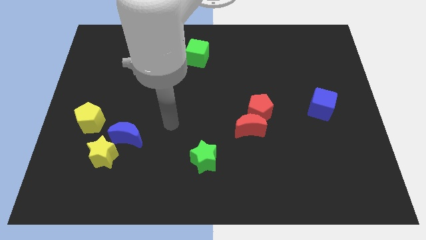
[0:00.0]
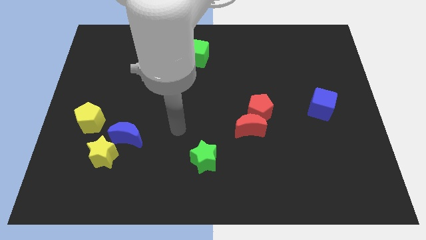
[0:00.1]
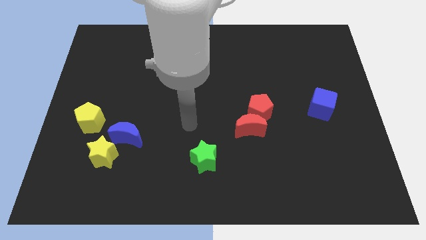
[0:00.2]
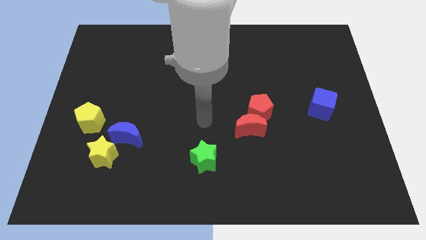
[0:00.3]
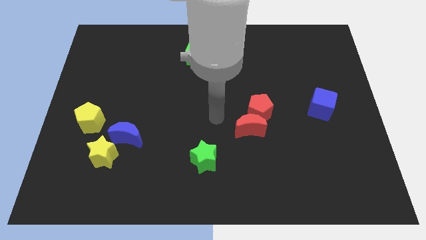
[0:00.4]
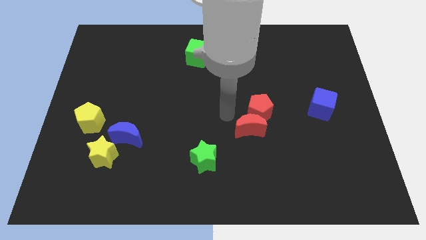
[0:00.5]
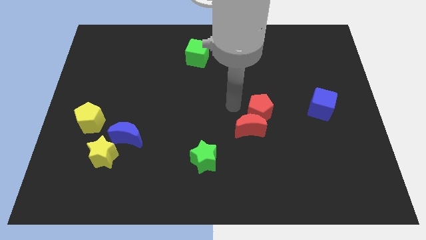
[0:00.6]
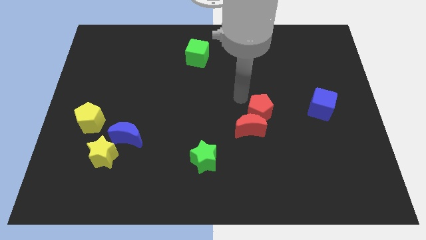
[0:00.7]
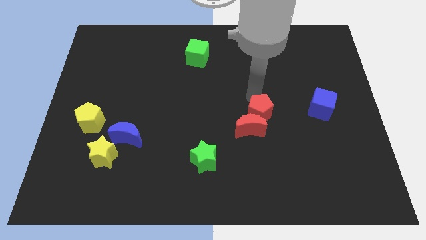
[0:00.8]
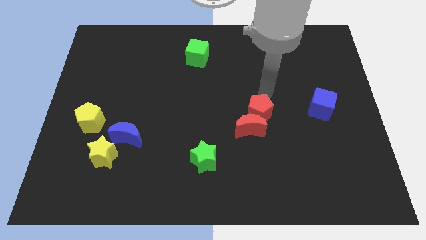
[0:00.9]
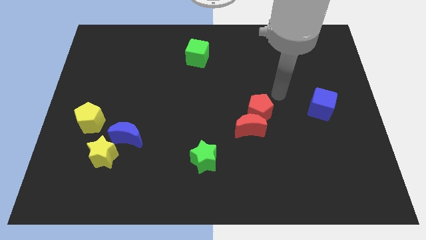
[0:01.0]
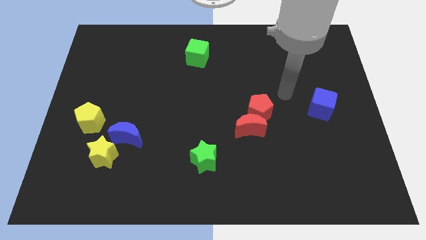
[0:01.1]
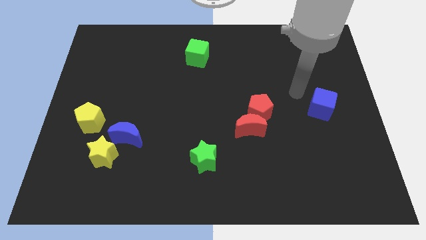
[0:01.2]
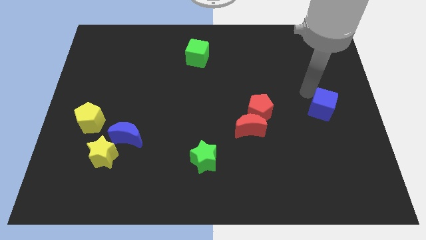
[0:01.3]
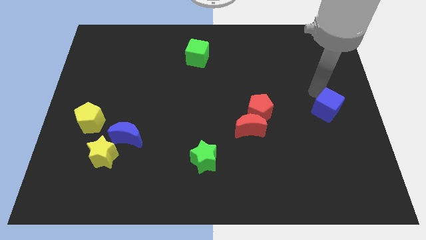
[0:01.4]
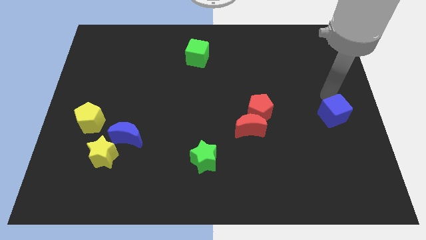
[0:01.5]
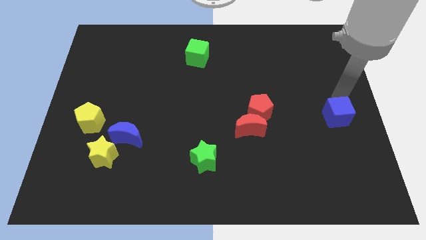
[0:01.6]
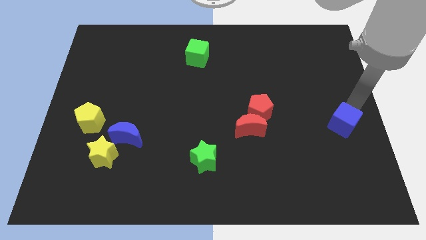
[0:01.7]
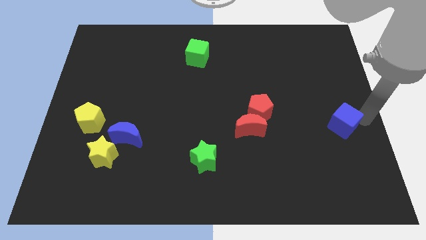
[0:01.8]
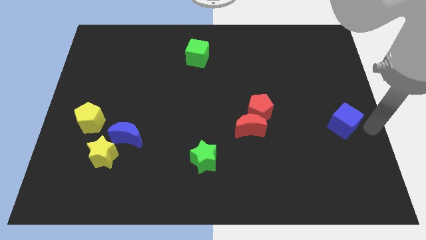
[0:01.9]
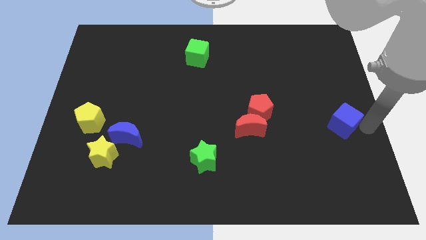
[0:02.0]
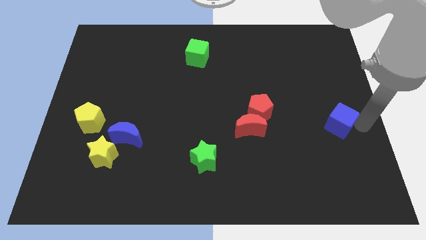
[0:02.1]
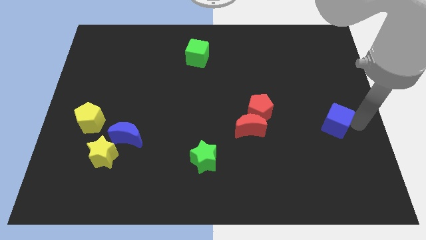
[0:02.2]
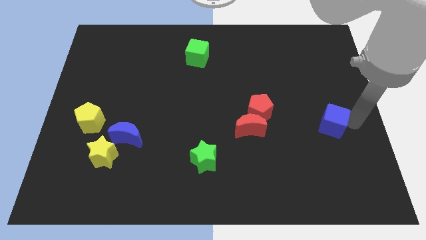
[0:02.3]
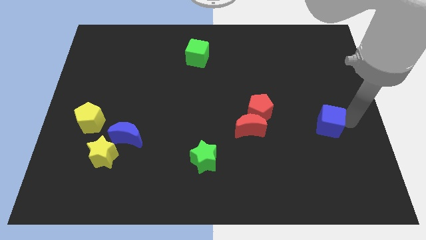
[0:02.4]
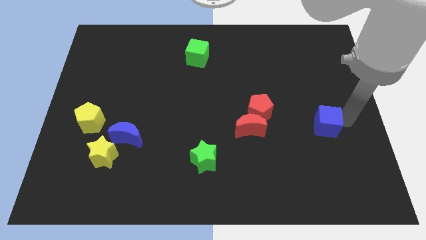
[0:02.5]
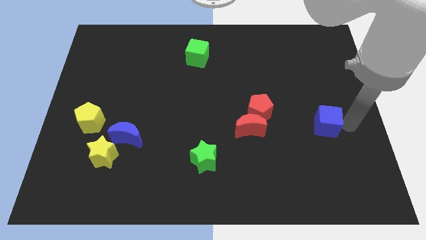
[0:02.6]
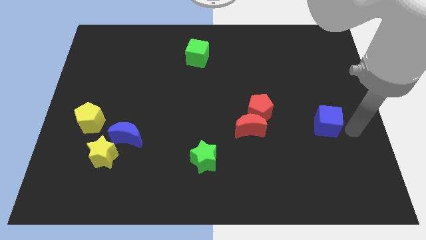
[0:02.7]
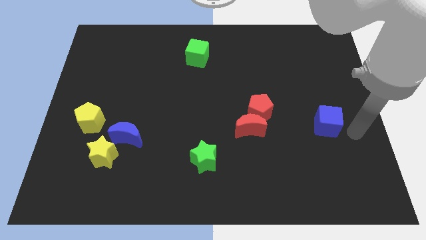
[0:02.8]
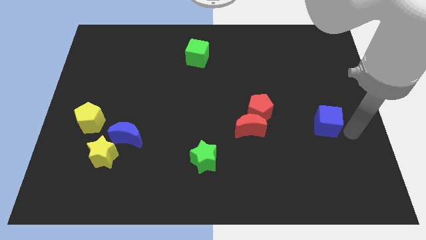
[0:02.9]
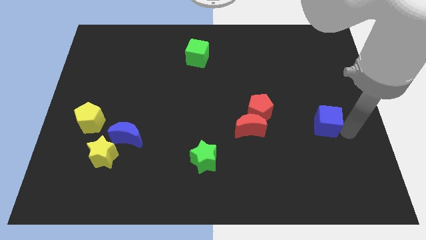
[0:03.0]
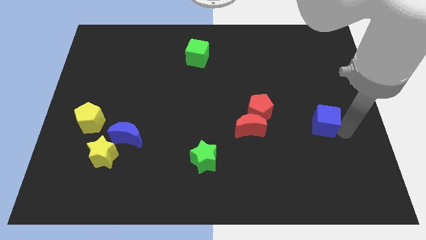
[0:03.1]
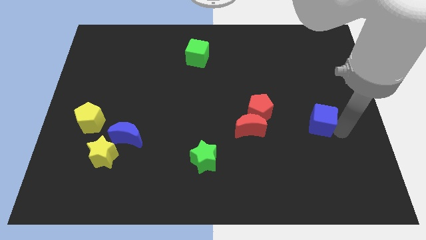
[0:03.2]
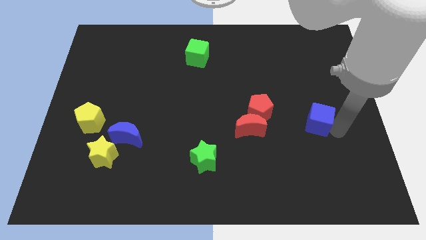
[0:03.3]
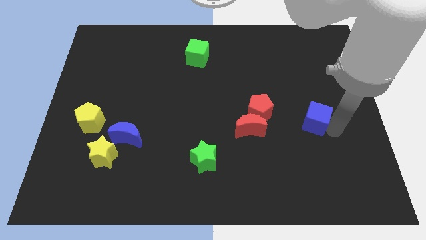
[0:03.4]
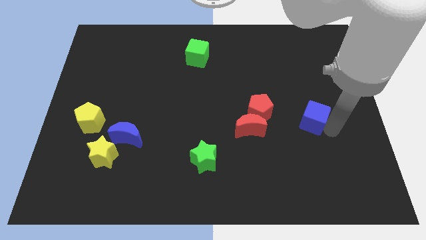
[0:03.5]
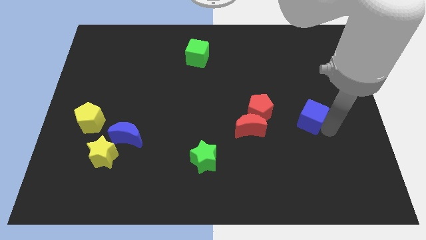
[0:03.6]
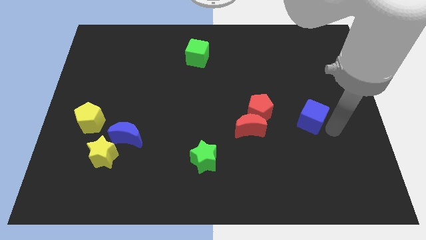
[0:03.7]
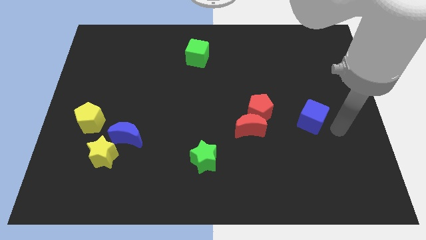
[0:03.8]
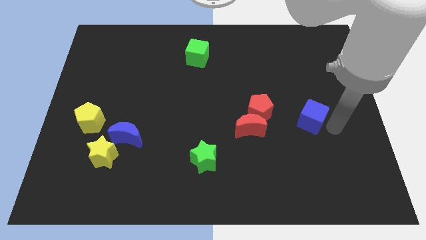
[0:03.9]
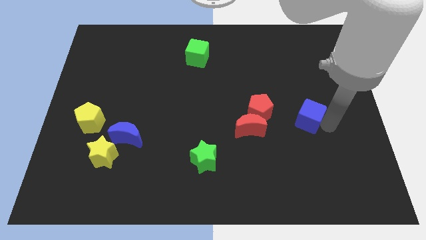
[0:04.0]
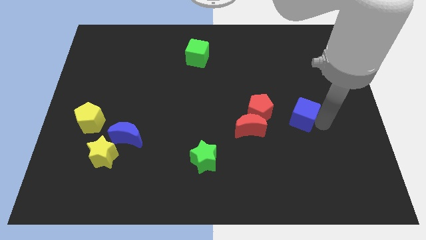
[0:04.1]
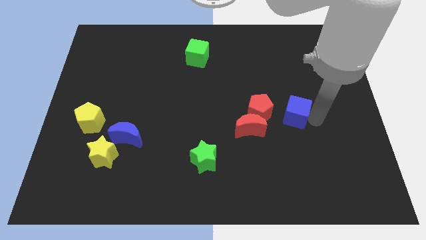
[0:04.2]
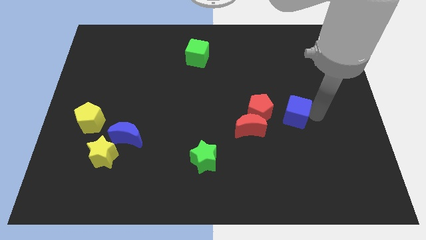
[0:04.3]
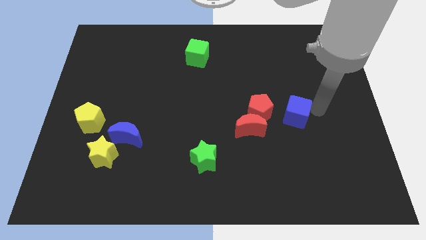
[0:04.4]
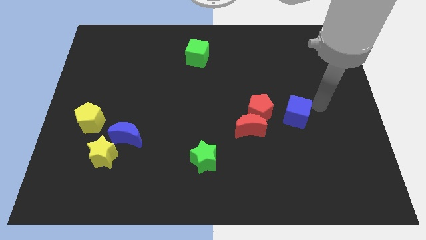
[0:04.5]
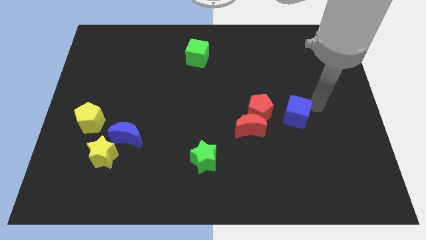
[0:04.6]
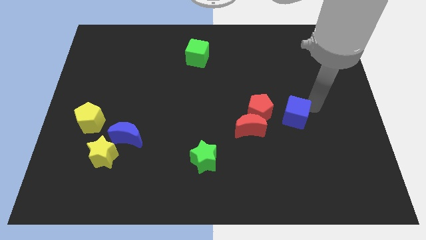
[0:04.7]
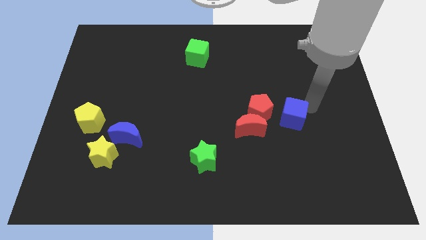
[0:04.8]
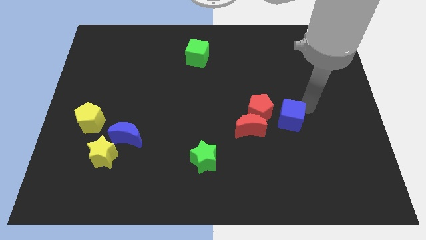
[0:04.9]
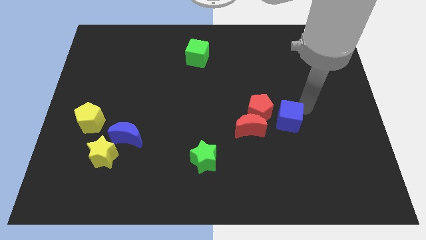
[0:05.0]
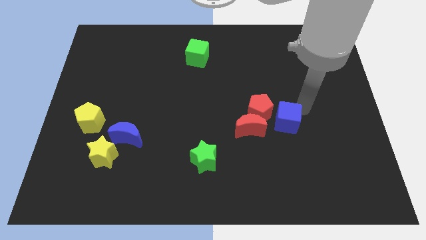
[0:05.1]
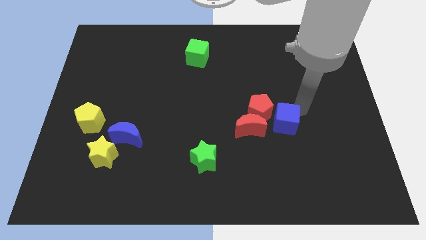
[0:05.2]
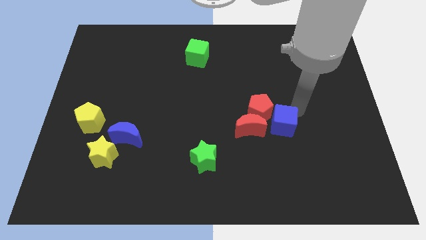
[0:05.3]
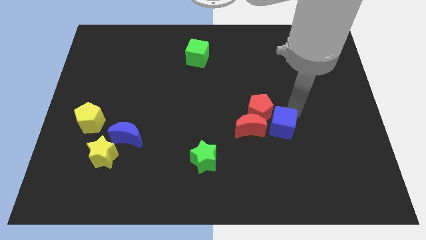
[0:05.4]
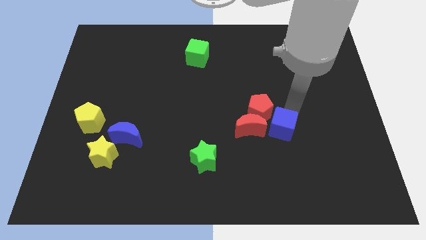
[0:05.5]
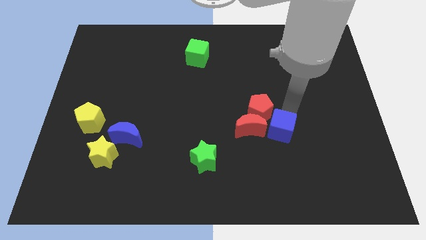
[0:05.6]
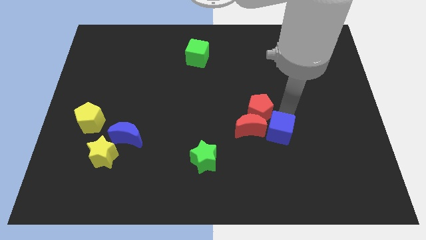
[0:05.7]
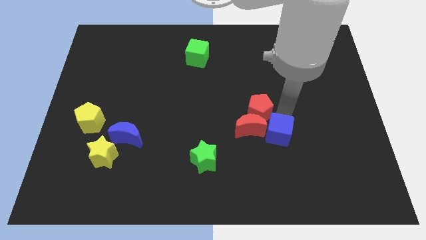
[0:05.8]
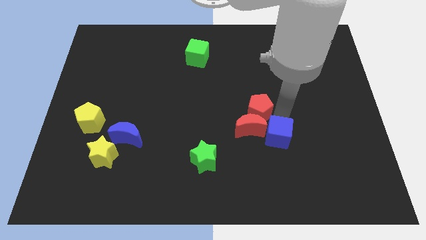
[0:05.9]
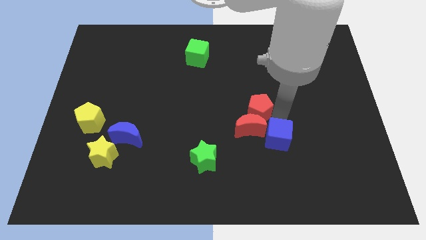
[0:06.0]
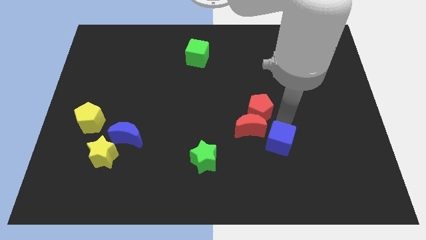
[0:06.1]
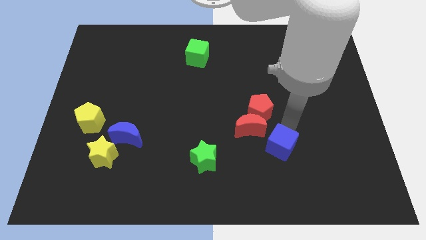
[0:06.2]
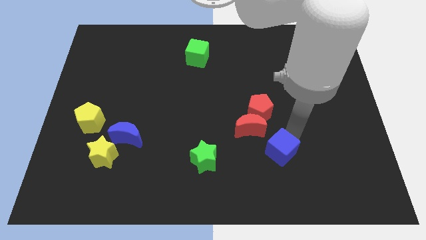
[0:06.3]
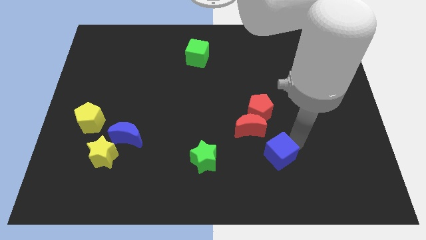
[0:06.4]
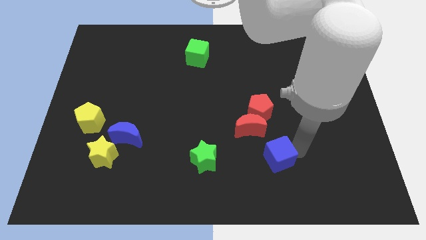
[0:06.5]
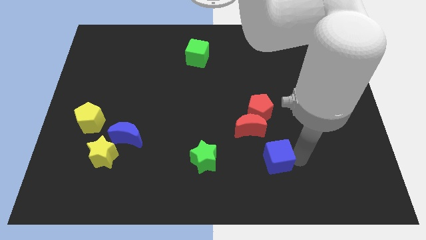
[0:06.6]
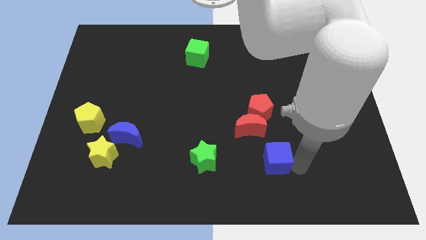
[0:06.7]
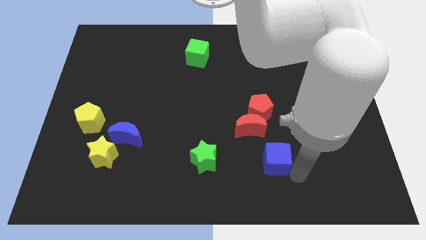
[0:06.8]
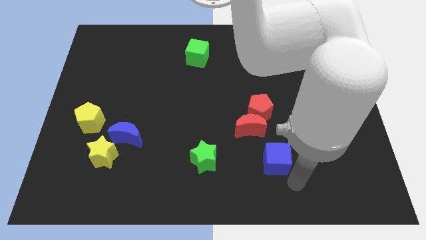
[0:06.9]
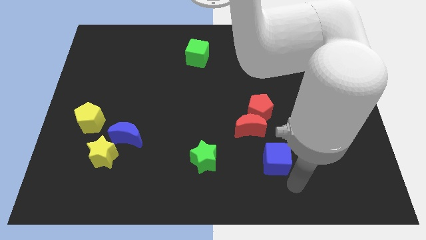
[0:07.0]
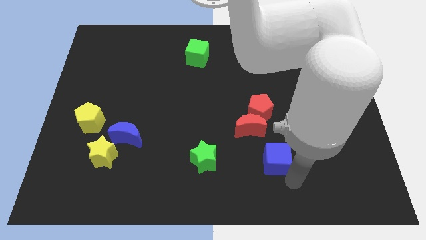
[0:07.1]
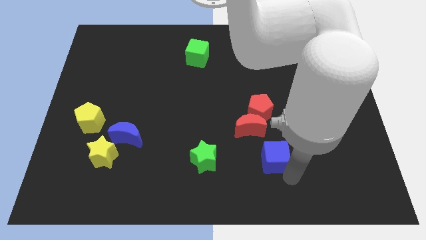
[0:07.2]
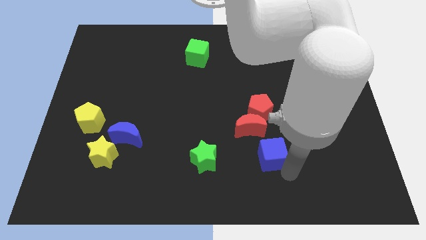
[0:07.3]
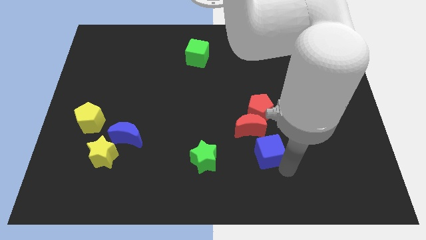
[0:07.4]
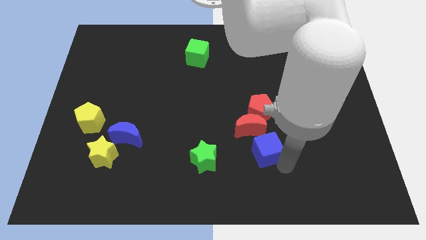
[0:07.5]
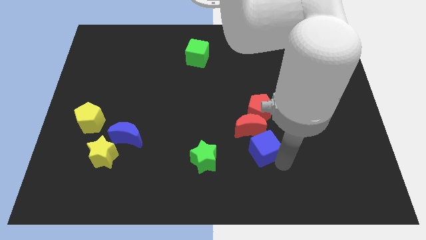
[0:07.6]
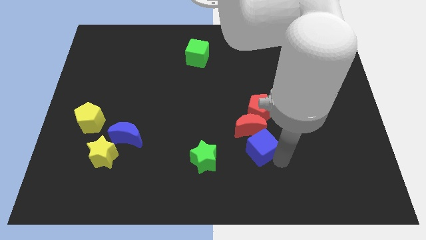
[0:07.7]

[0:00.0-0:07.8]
put the blue cube towards the red moon
